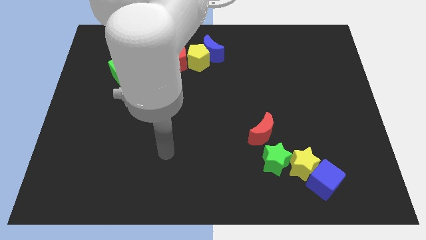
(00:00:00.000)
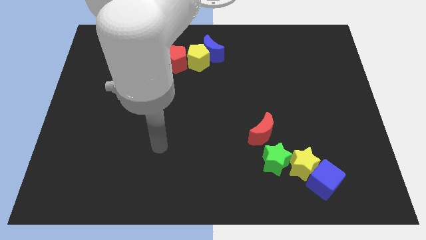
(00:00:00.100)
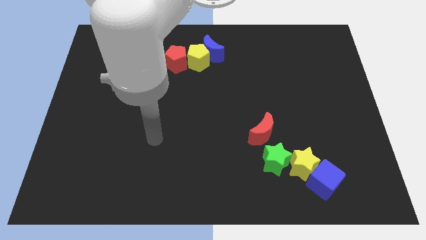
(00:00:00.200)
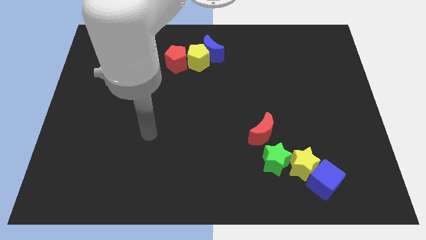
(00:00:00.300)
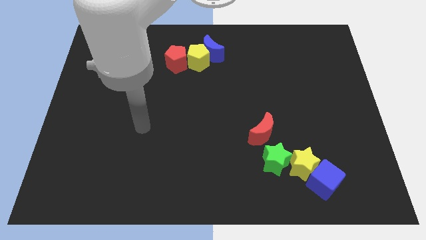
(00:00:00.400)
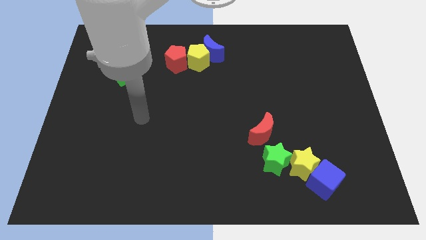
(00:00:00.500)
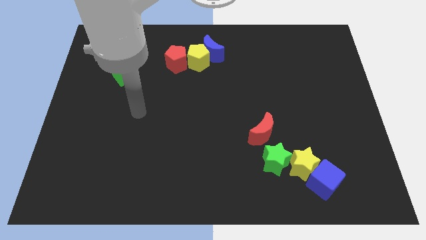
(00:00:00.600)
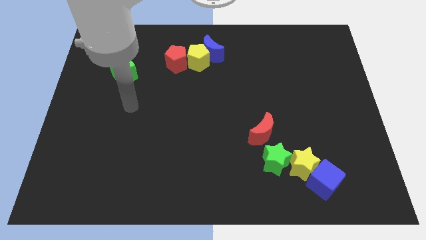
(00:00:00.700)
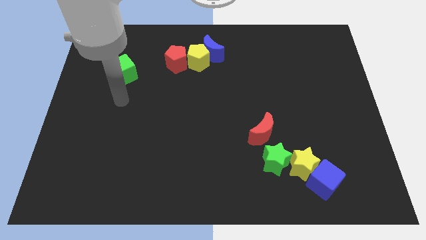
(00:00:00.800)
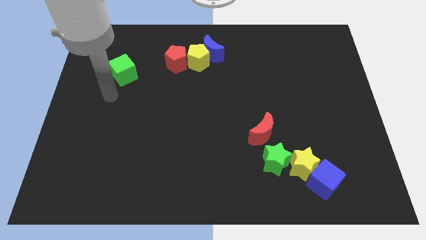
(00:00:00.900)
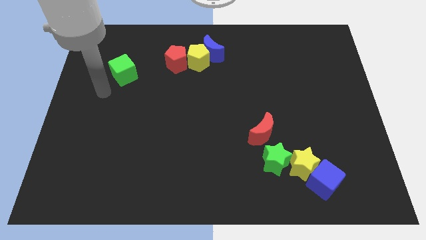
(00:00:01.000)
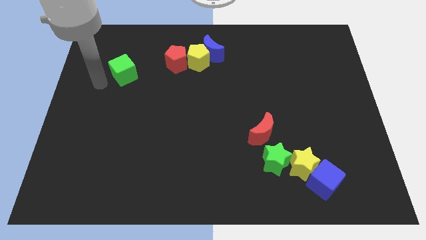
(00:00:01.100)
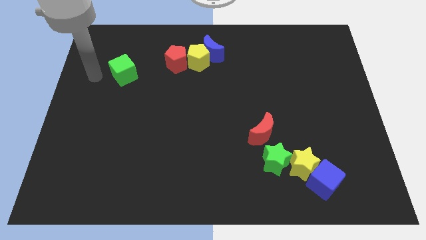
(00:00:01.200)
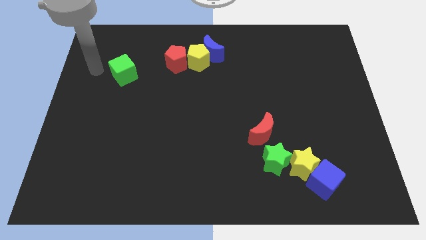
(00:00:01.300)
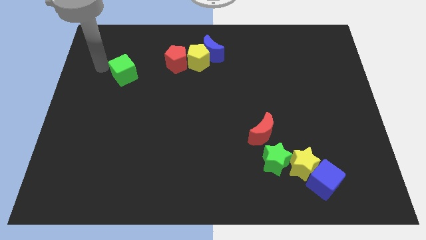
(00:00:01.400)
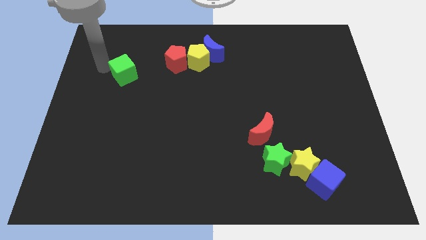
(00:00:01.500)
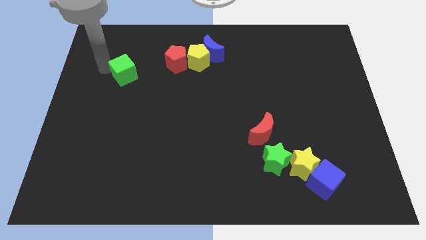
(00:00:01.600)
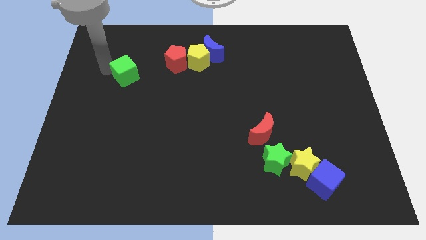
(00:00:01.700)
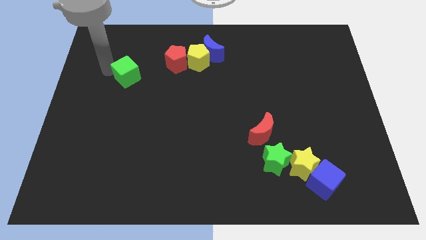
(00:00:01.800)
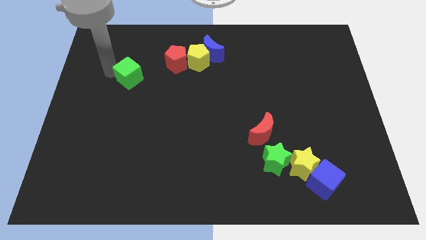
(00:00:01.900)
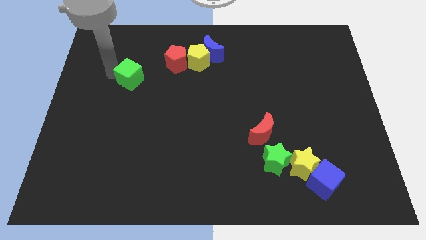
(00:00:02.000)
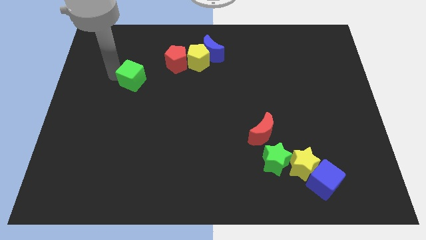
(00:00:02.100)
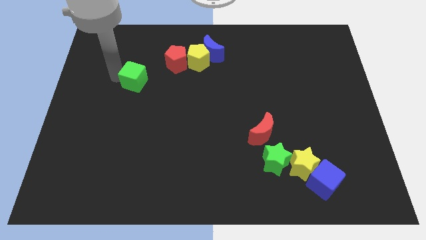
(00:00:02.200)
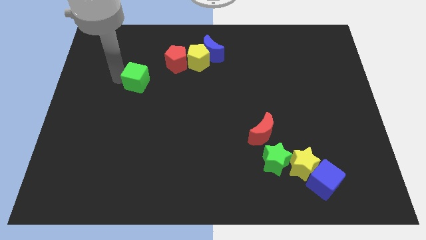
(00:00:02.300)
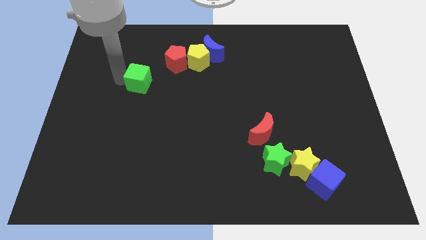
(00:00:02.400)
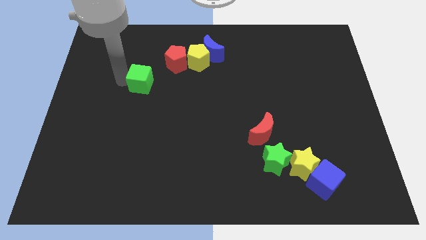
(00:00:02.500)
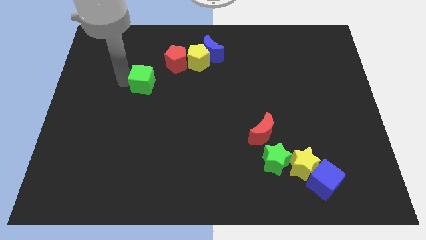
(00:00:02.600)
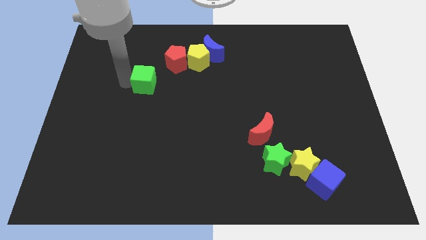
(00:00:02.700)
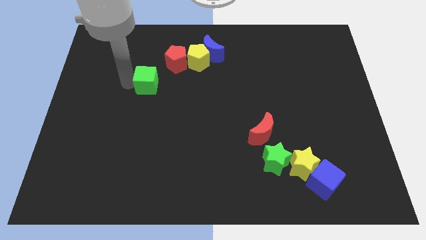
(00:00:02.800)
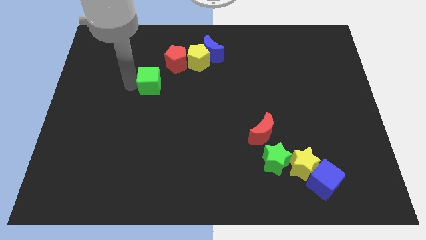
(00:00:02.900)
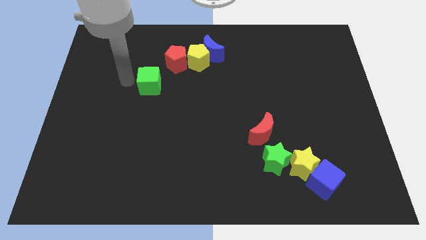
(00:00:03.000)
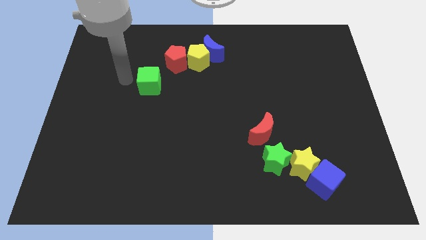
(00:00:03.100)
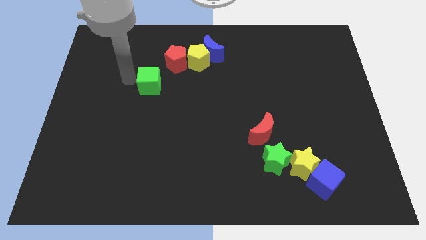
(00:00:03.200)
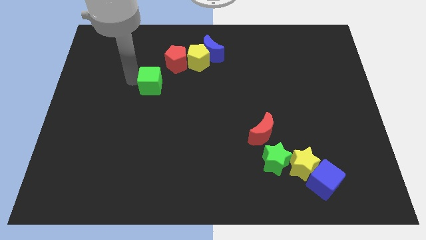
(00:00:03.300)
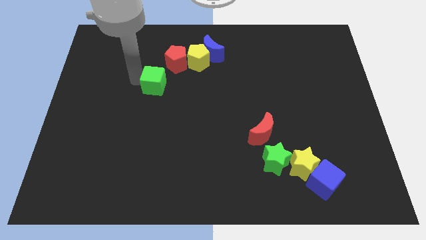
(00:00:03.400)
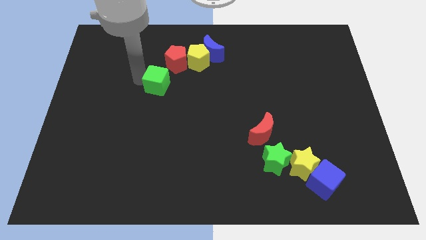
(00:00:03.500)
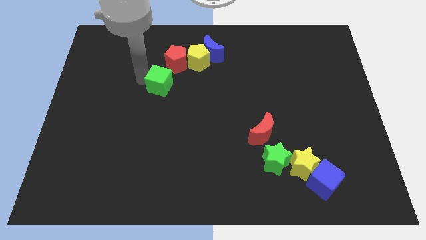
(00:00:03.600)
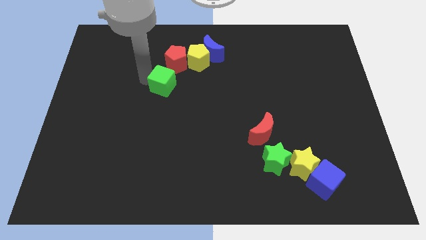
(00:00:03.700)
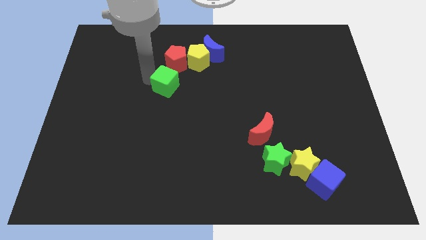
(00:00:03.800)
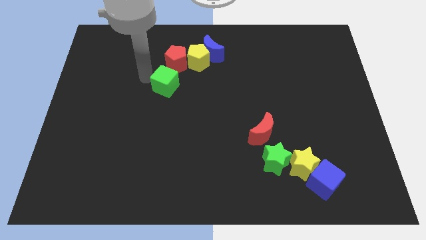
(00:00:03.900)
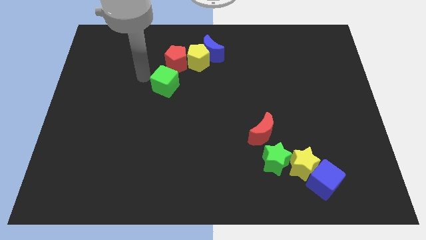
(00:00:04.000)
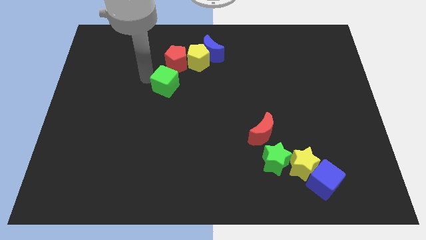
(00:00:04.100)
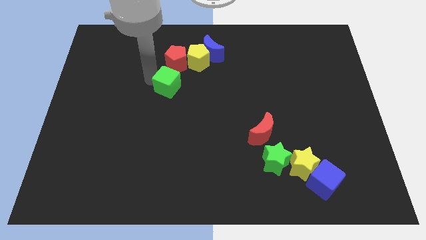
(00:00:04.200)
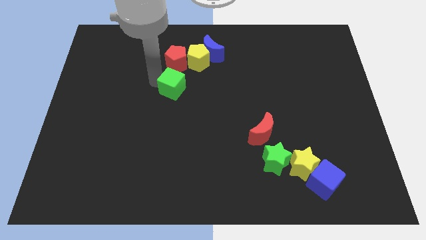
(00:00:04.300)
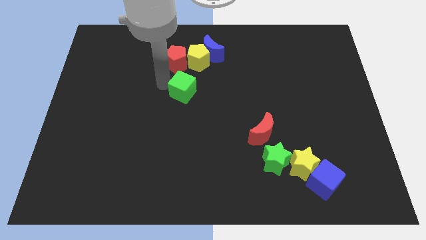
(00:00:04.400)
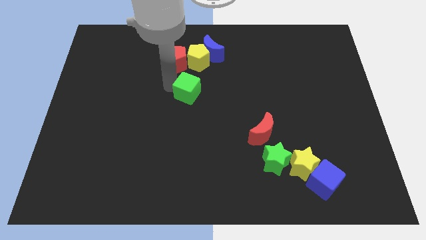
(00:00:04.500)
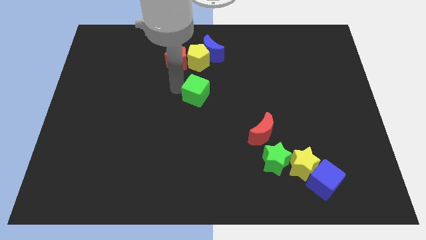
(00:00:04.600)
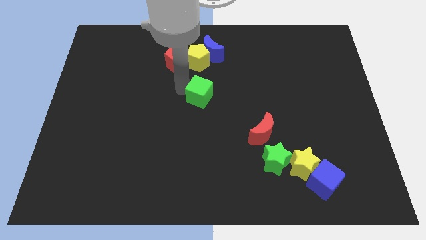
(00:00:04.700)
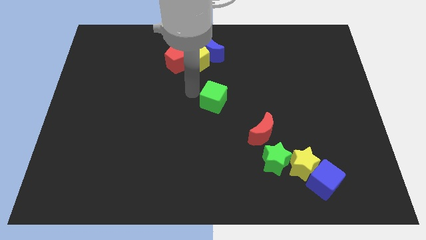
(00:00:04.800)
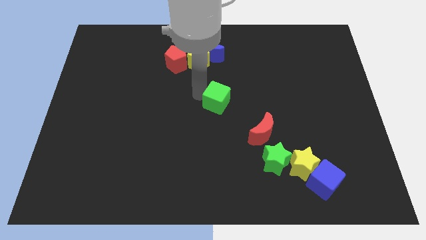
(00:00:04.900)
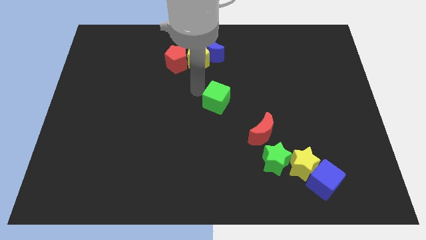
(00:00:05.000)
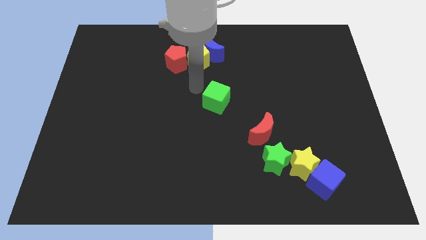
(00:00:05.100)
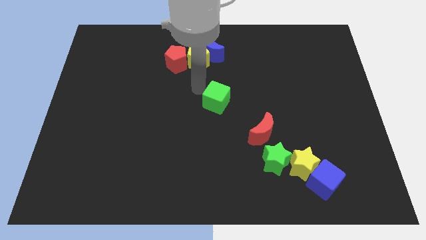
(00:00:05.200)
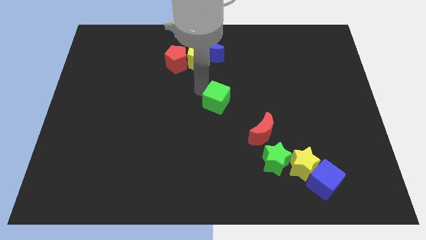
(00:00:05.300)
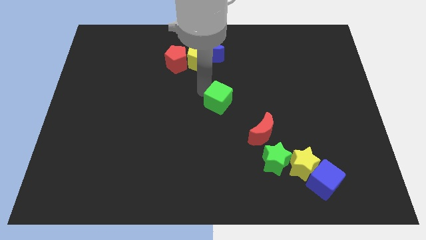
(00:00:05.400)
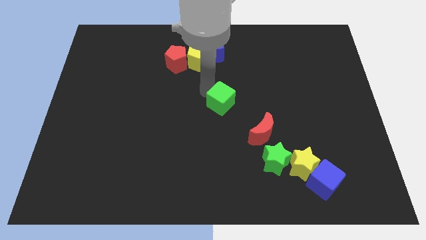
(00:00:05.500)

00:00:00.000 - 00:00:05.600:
slide the green cube to the top left of the red moon

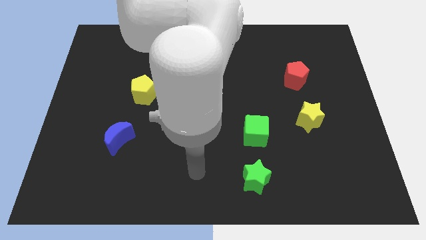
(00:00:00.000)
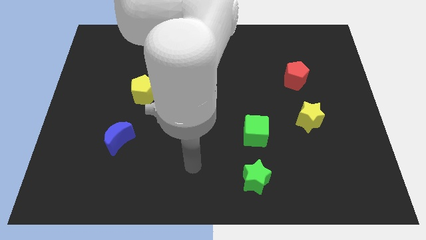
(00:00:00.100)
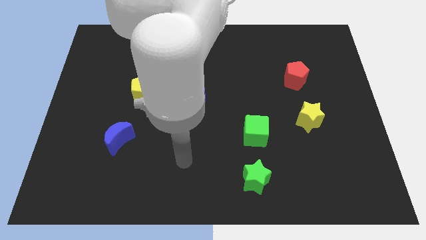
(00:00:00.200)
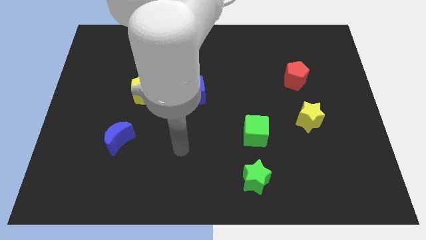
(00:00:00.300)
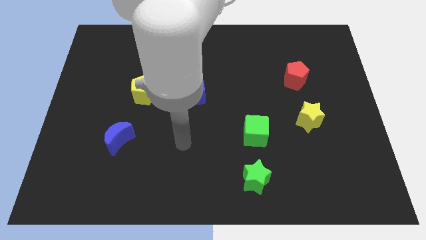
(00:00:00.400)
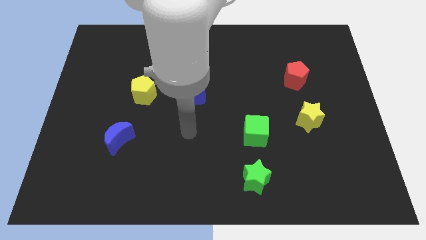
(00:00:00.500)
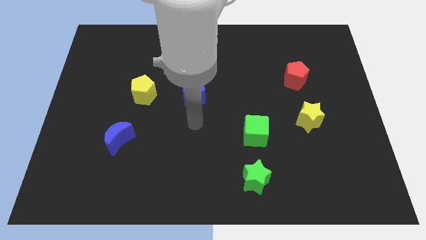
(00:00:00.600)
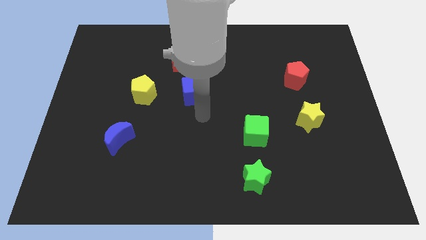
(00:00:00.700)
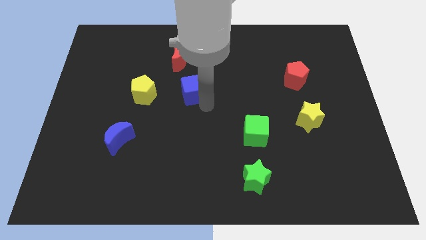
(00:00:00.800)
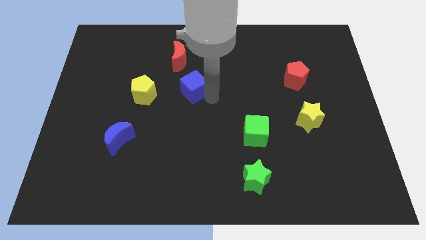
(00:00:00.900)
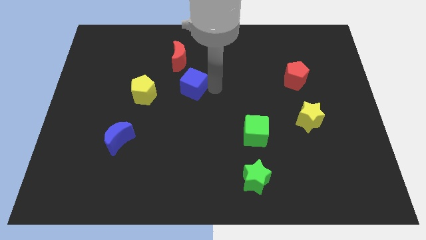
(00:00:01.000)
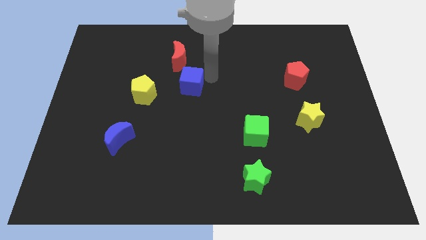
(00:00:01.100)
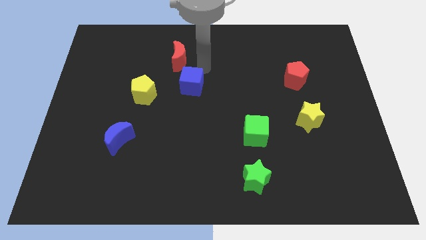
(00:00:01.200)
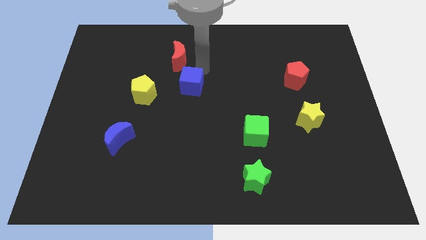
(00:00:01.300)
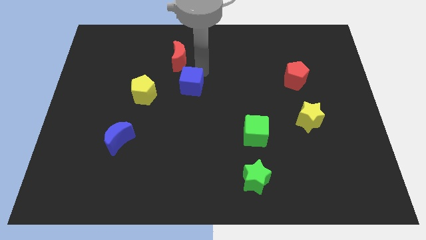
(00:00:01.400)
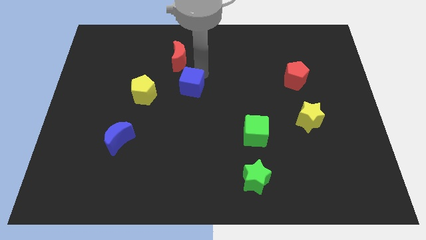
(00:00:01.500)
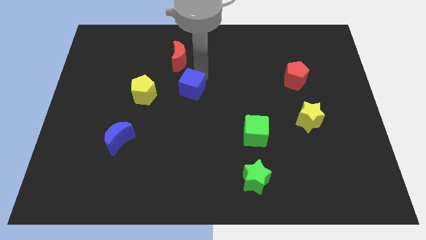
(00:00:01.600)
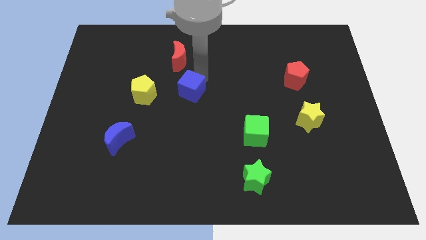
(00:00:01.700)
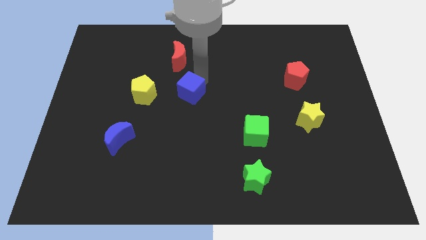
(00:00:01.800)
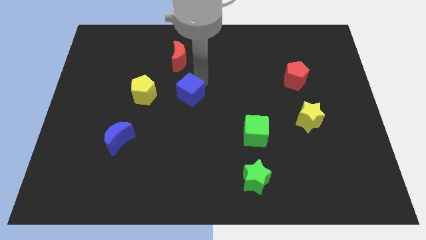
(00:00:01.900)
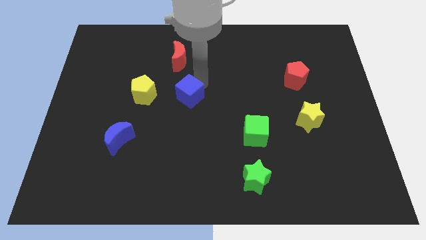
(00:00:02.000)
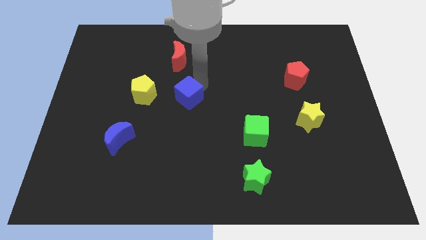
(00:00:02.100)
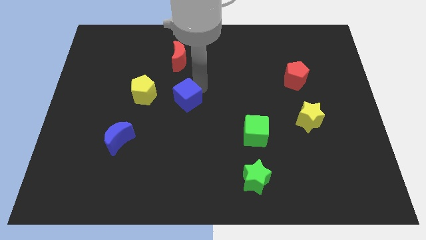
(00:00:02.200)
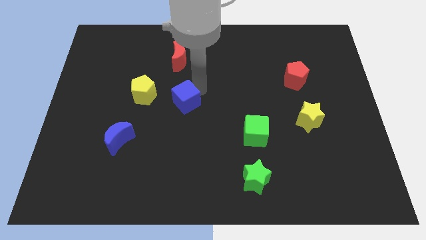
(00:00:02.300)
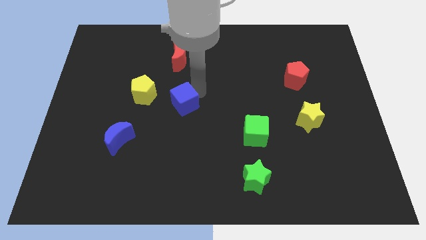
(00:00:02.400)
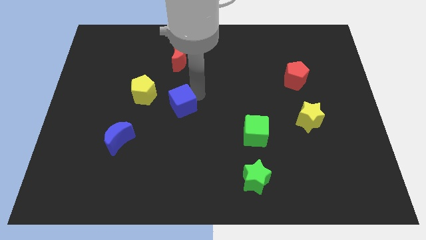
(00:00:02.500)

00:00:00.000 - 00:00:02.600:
move the blue cube diagonally down and to the right of the yellow pentagon
